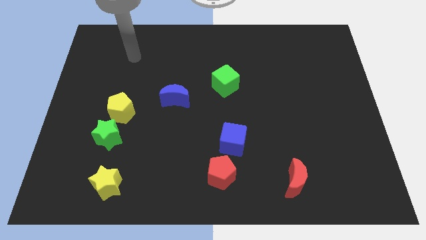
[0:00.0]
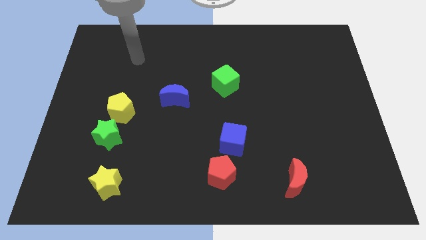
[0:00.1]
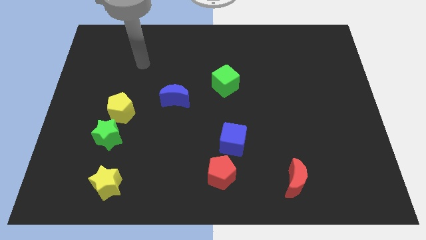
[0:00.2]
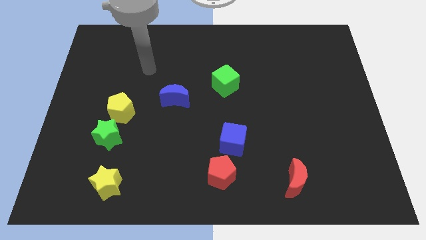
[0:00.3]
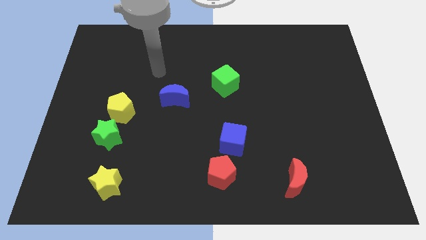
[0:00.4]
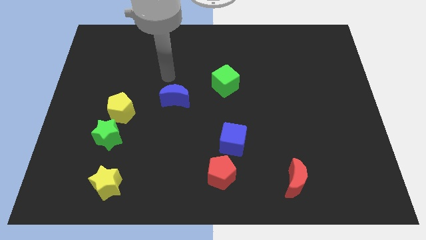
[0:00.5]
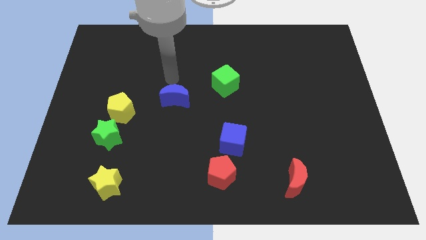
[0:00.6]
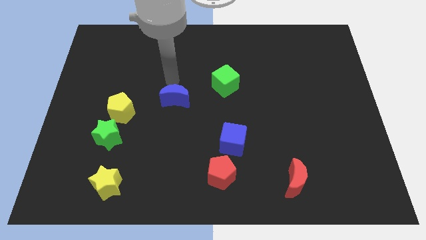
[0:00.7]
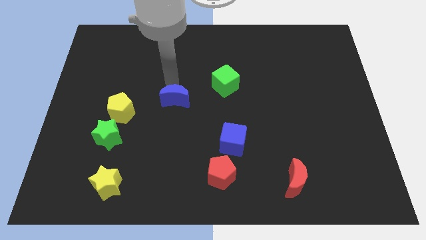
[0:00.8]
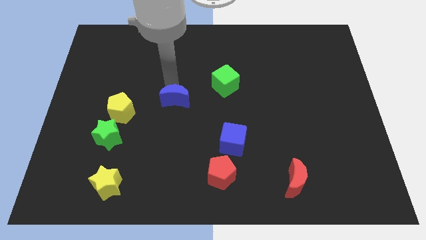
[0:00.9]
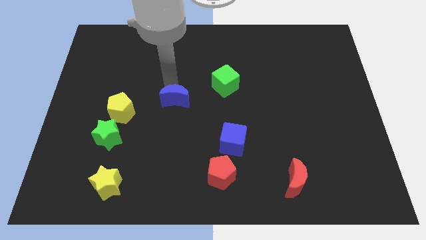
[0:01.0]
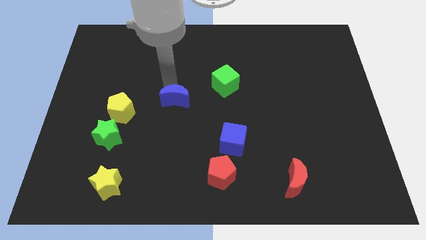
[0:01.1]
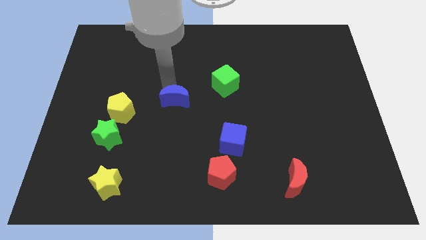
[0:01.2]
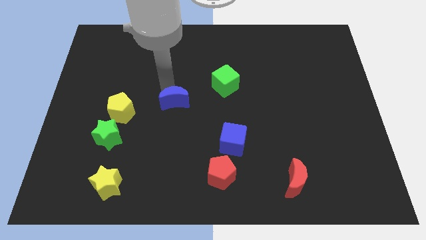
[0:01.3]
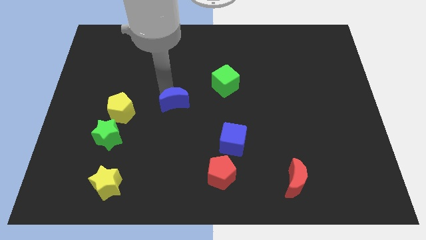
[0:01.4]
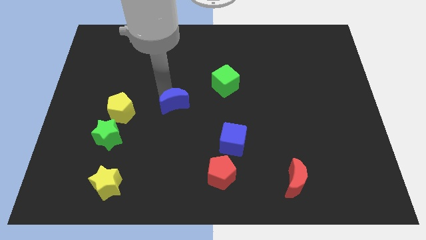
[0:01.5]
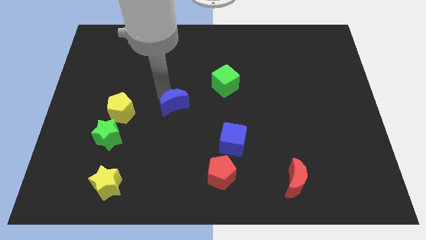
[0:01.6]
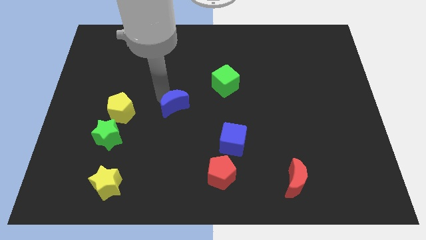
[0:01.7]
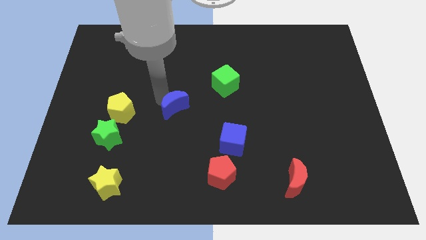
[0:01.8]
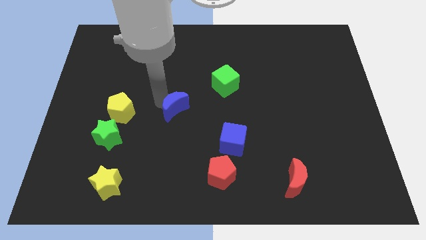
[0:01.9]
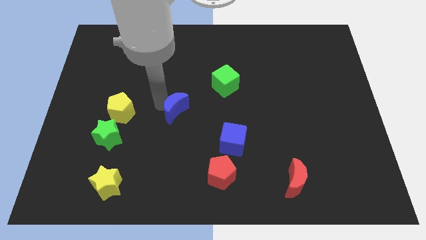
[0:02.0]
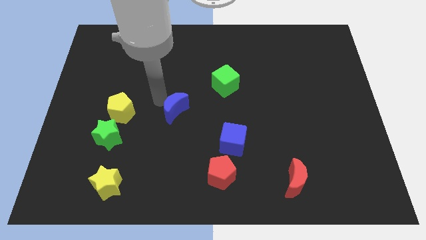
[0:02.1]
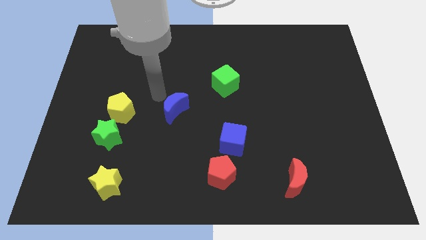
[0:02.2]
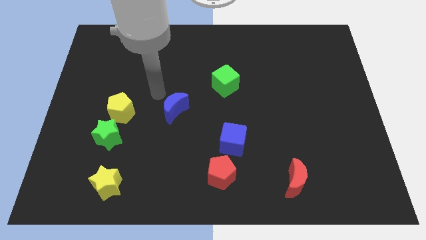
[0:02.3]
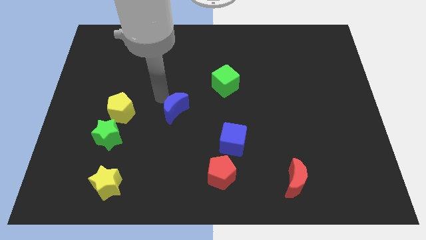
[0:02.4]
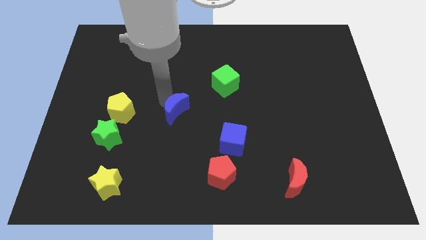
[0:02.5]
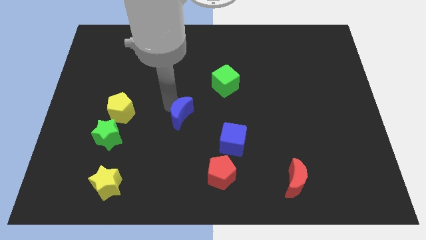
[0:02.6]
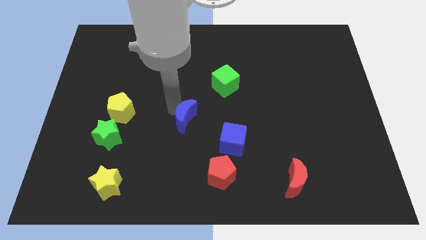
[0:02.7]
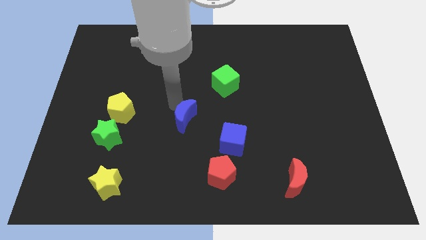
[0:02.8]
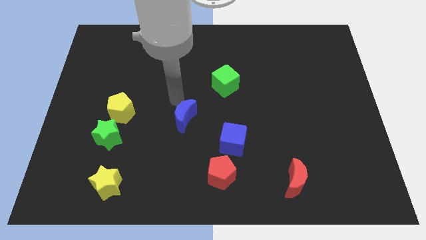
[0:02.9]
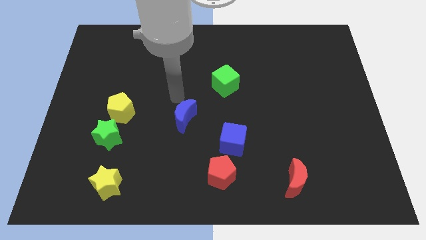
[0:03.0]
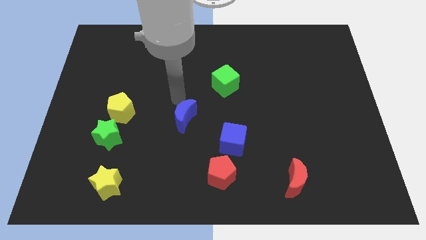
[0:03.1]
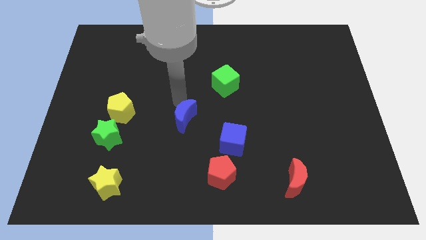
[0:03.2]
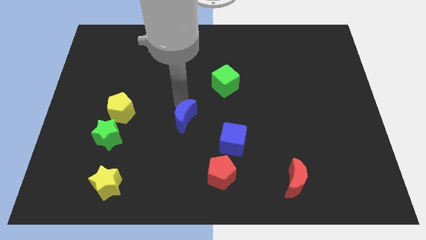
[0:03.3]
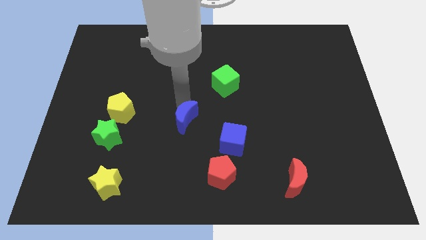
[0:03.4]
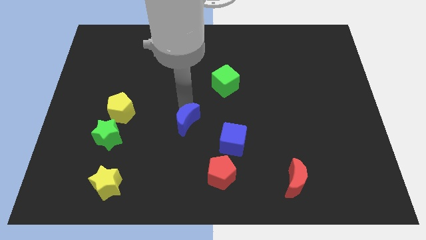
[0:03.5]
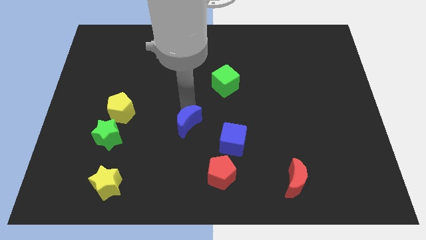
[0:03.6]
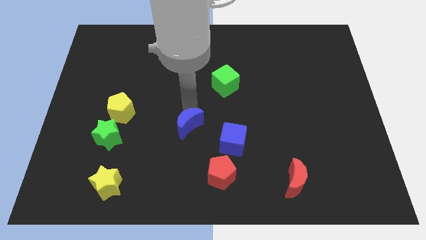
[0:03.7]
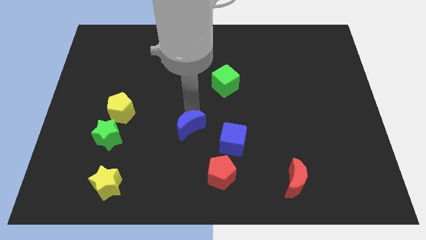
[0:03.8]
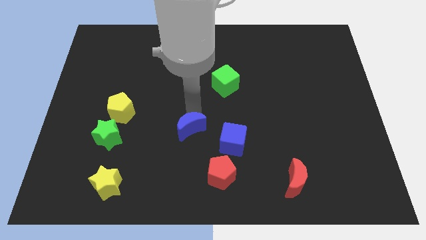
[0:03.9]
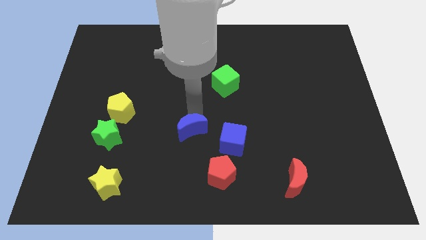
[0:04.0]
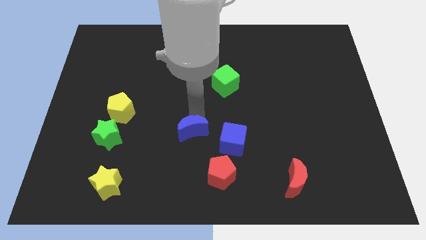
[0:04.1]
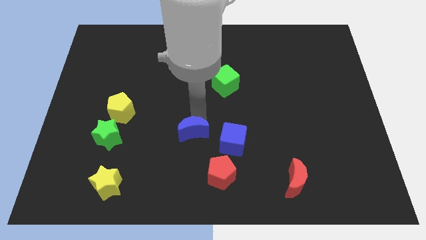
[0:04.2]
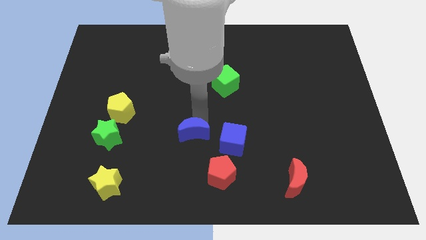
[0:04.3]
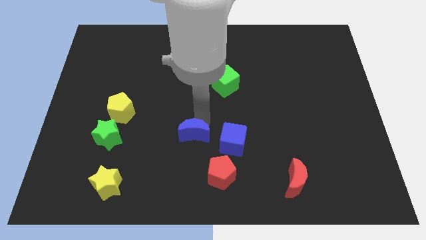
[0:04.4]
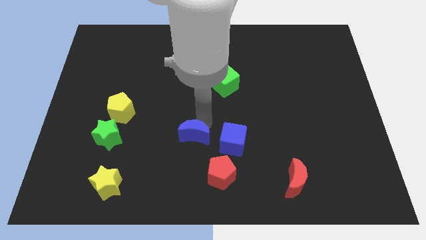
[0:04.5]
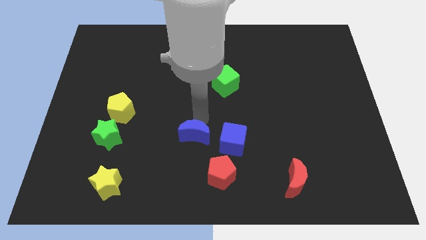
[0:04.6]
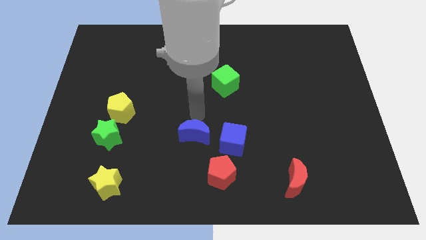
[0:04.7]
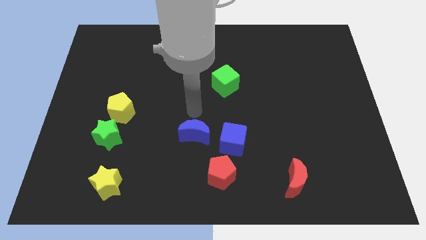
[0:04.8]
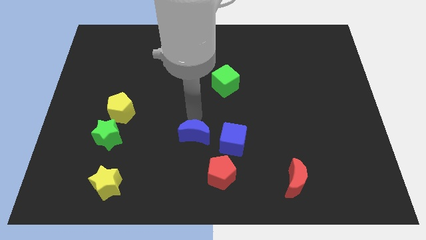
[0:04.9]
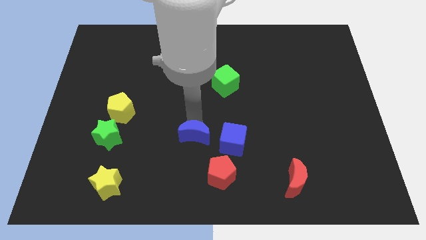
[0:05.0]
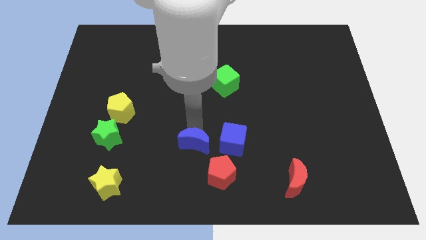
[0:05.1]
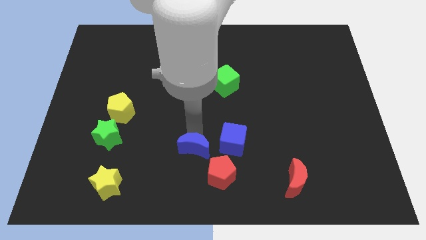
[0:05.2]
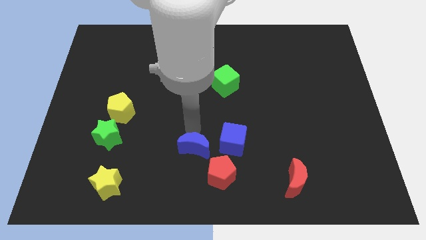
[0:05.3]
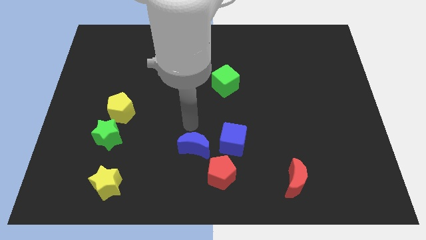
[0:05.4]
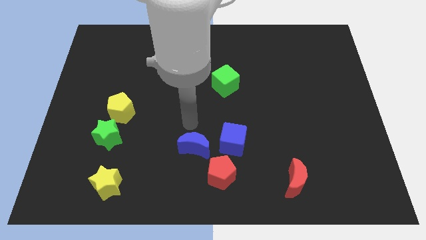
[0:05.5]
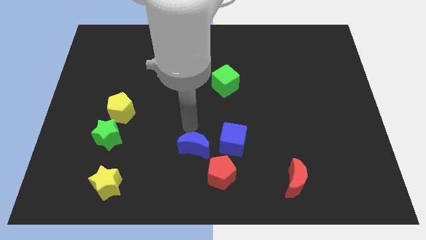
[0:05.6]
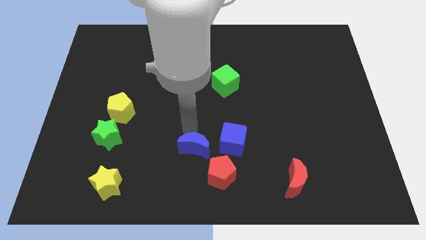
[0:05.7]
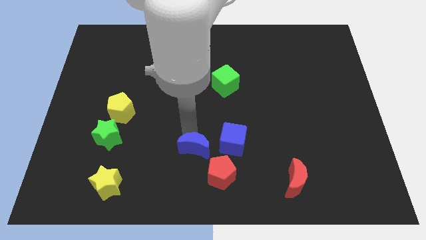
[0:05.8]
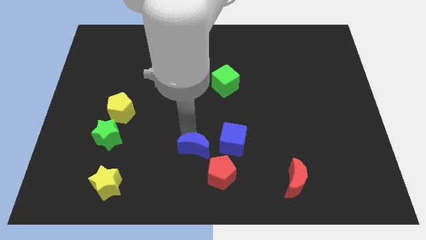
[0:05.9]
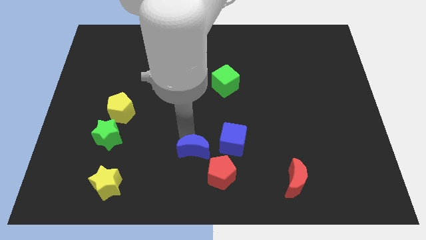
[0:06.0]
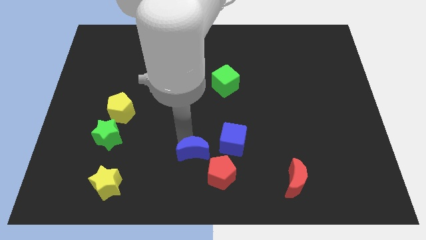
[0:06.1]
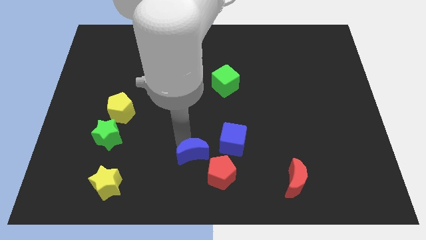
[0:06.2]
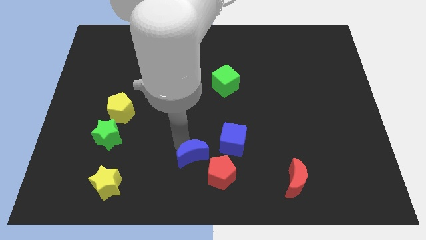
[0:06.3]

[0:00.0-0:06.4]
slide the blue moon to the bottom side
